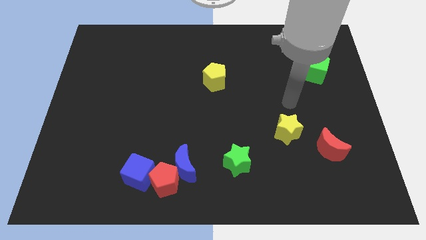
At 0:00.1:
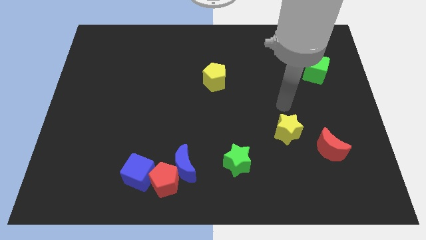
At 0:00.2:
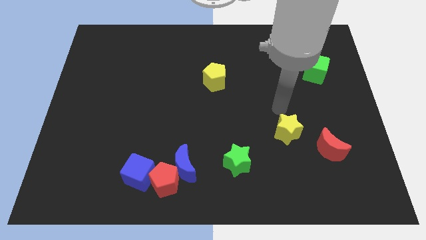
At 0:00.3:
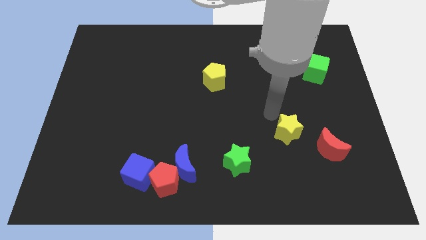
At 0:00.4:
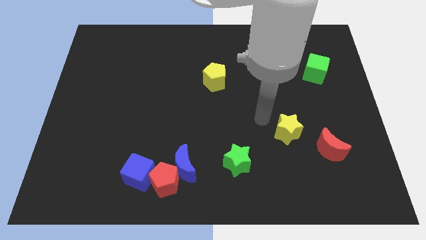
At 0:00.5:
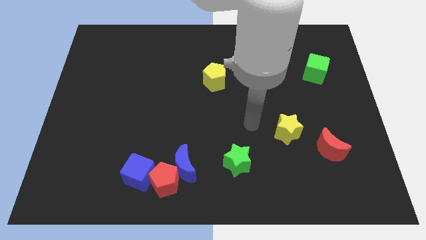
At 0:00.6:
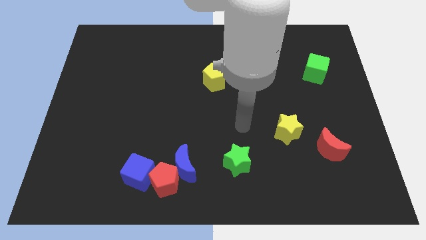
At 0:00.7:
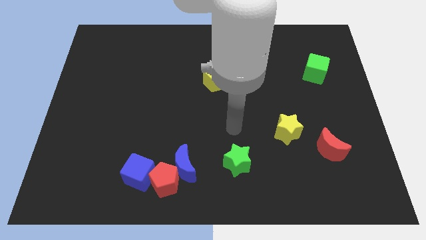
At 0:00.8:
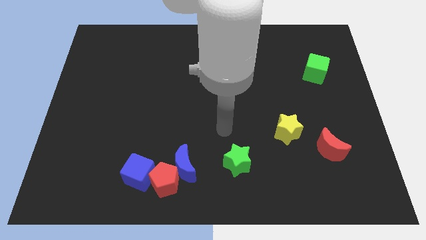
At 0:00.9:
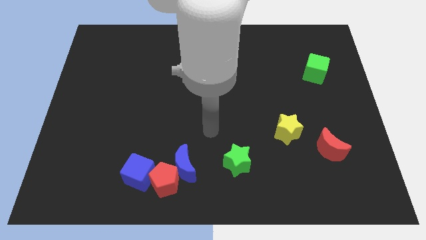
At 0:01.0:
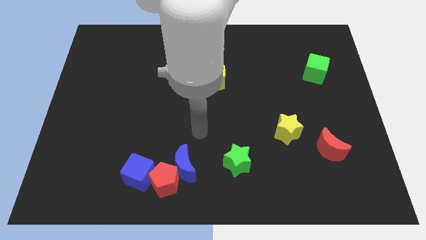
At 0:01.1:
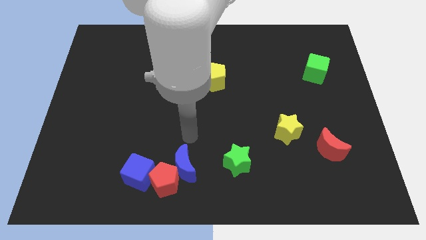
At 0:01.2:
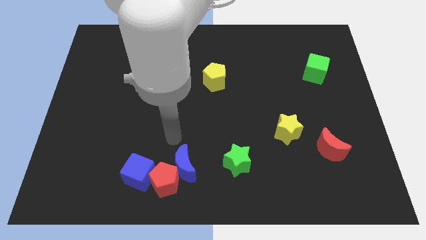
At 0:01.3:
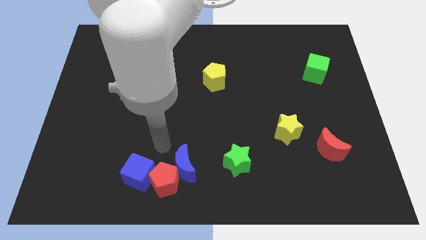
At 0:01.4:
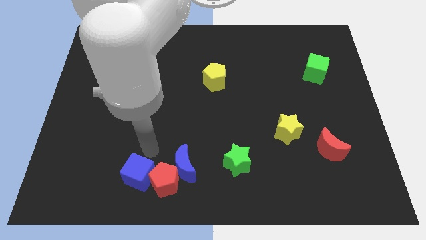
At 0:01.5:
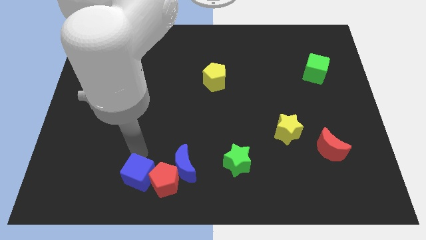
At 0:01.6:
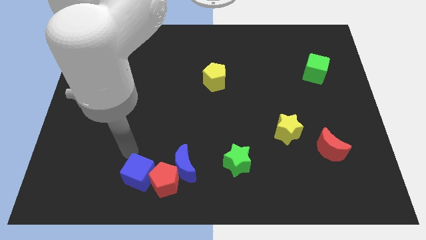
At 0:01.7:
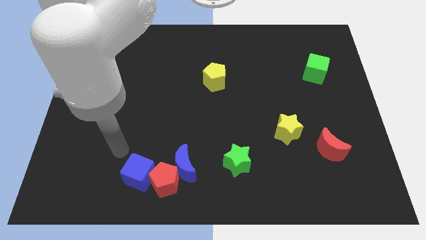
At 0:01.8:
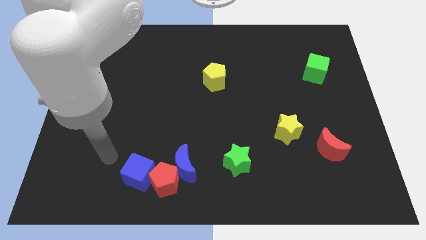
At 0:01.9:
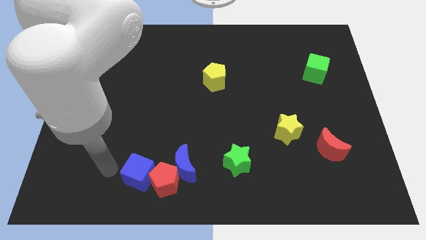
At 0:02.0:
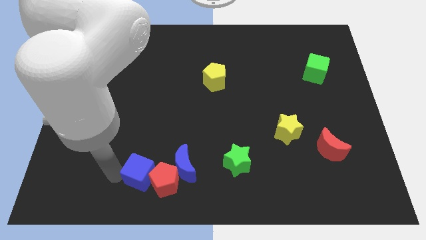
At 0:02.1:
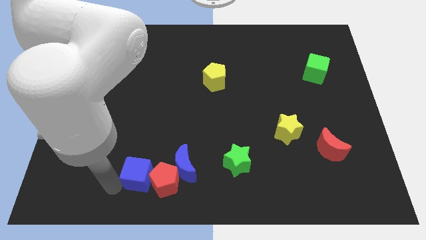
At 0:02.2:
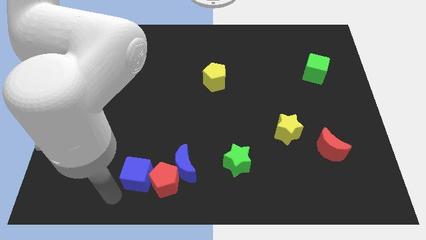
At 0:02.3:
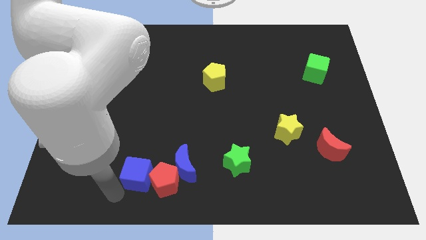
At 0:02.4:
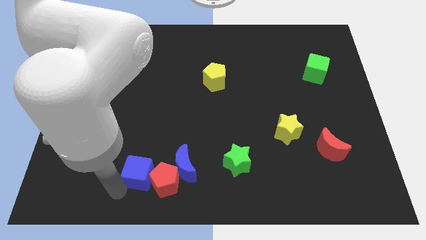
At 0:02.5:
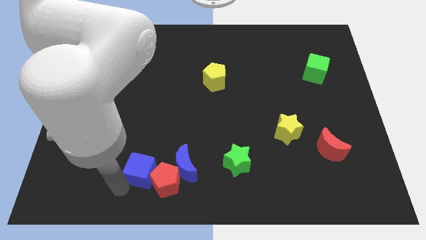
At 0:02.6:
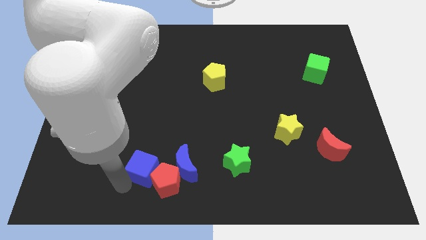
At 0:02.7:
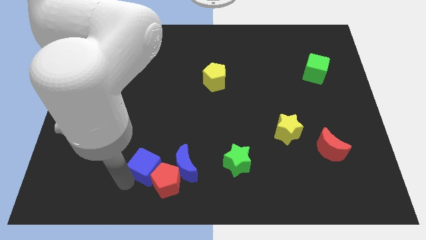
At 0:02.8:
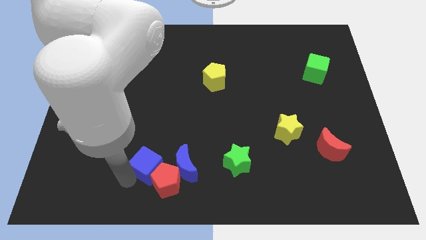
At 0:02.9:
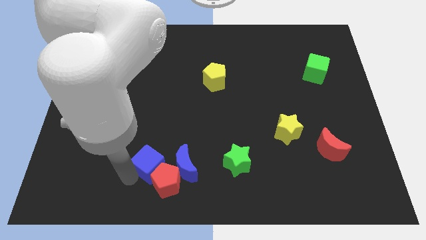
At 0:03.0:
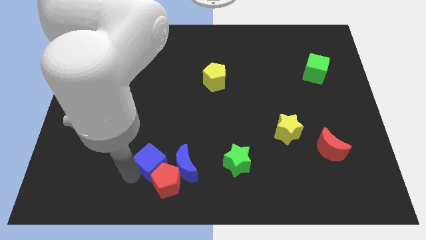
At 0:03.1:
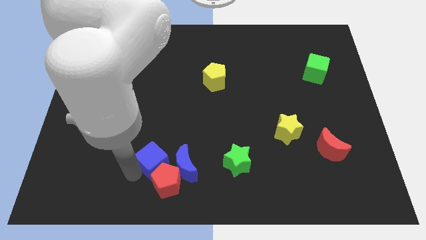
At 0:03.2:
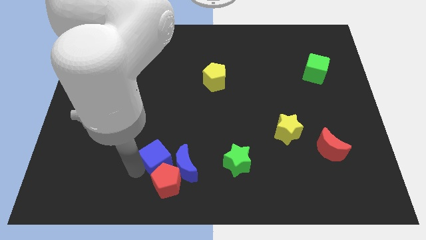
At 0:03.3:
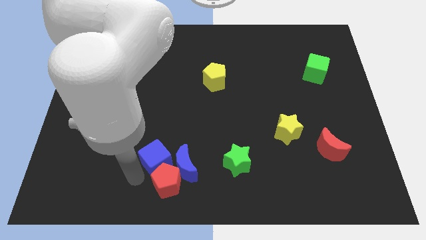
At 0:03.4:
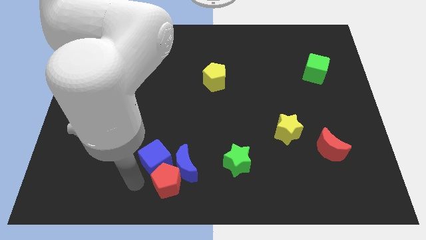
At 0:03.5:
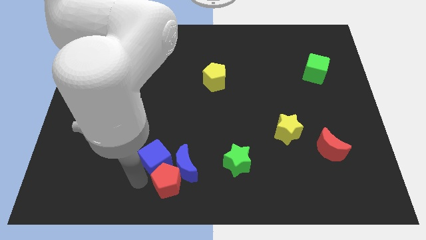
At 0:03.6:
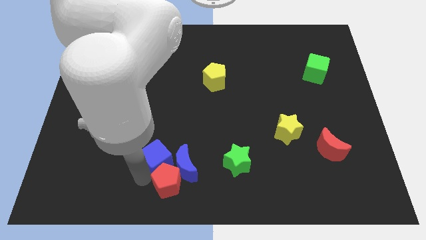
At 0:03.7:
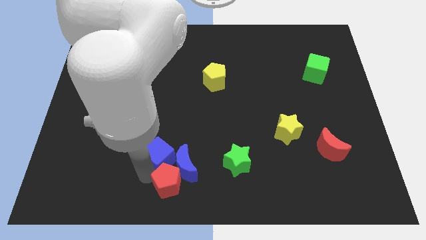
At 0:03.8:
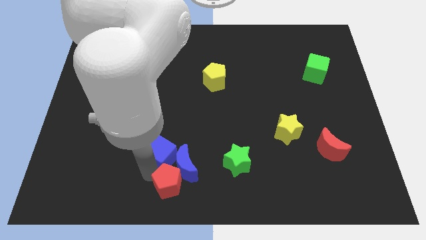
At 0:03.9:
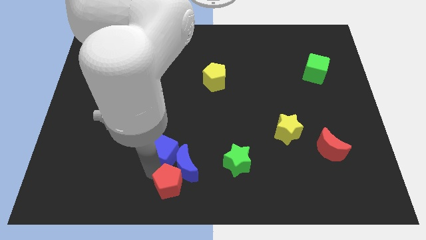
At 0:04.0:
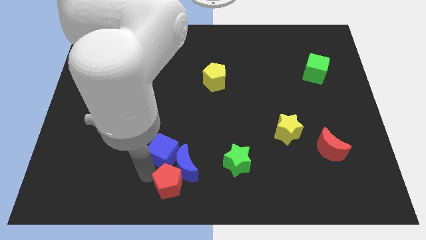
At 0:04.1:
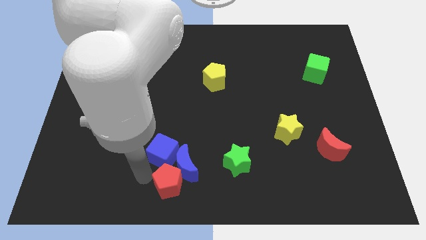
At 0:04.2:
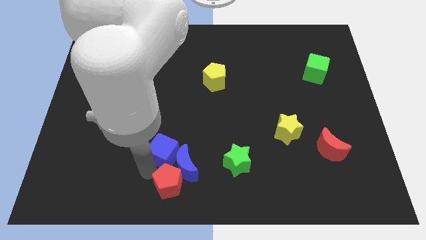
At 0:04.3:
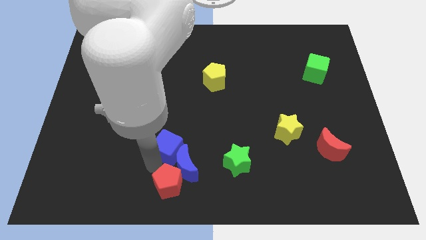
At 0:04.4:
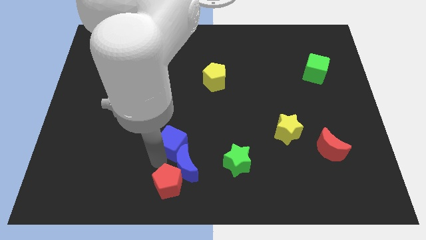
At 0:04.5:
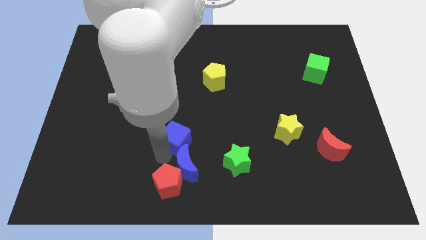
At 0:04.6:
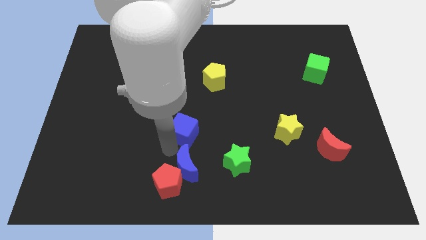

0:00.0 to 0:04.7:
slide the blue cube to the center

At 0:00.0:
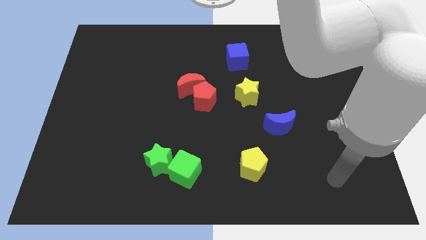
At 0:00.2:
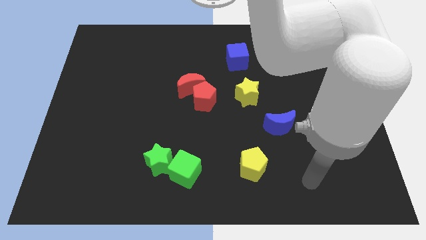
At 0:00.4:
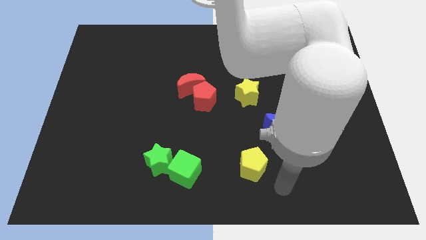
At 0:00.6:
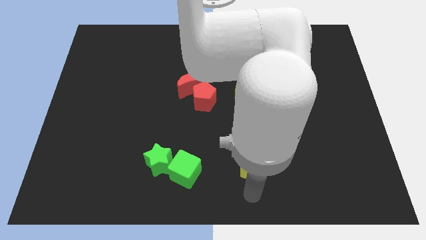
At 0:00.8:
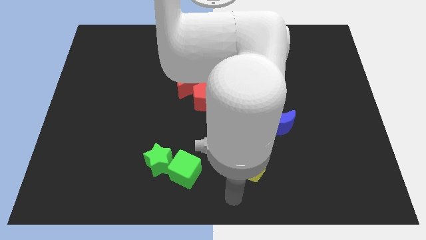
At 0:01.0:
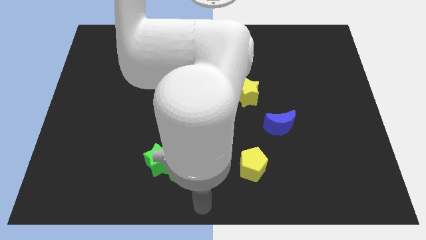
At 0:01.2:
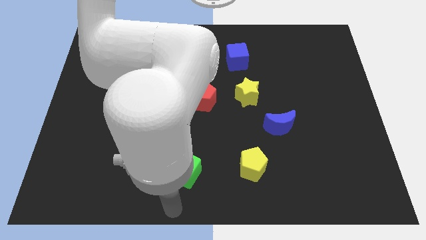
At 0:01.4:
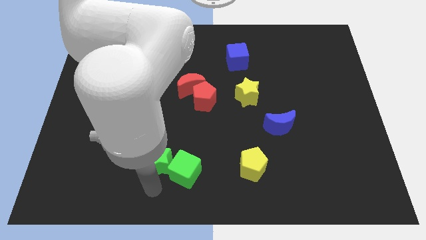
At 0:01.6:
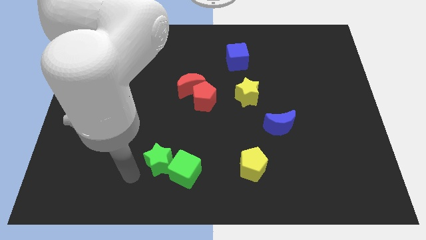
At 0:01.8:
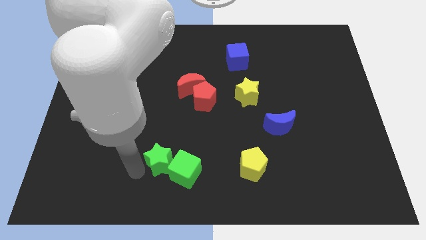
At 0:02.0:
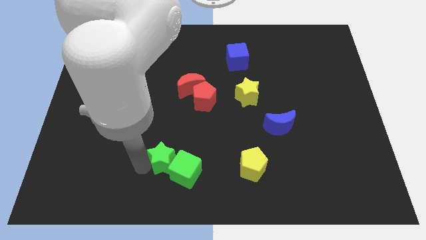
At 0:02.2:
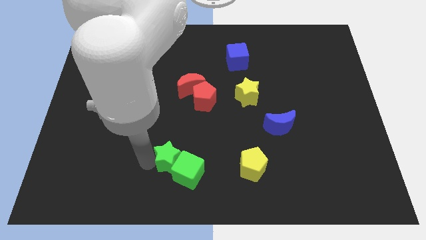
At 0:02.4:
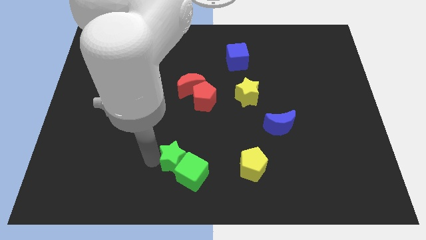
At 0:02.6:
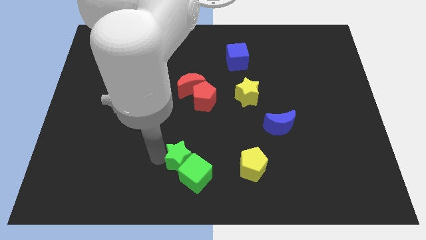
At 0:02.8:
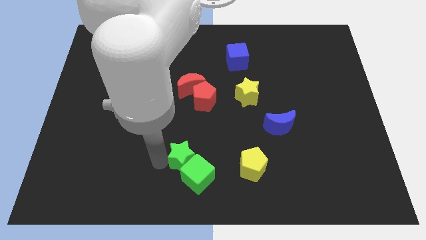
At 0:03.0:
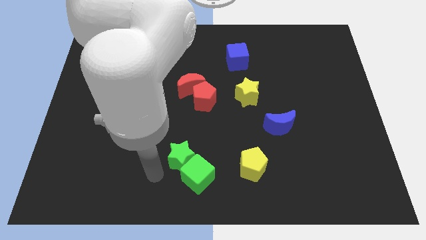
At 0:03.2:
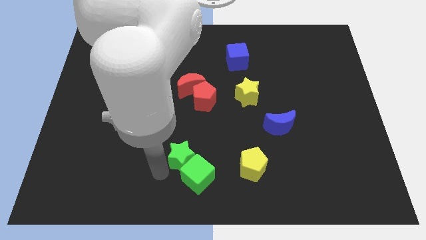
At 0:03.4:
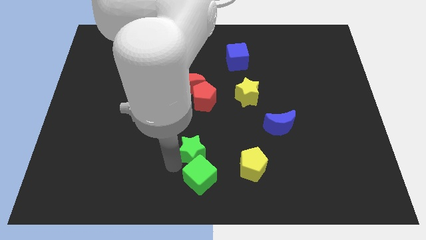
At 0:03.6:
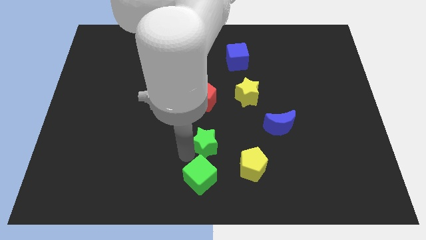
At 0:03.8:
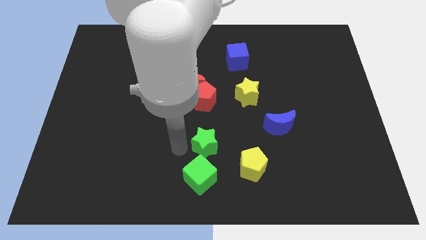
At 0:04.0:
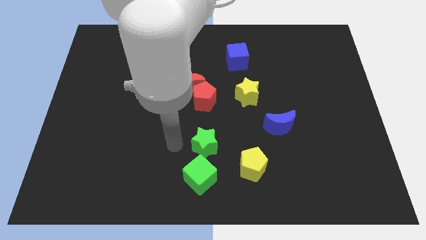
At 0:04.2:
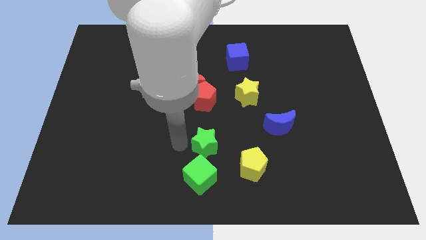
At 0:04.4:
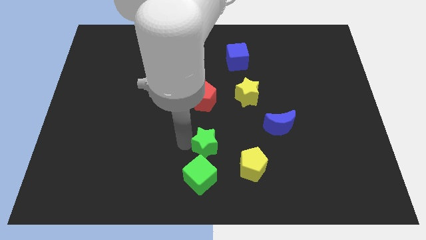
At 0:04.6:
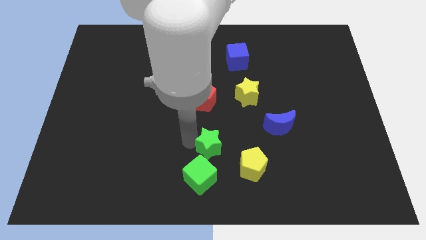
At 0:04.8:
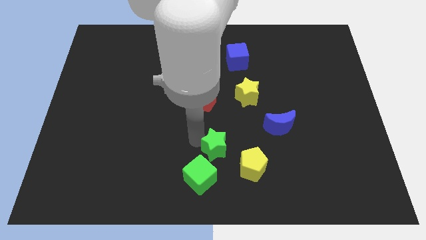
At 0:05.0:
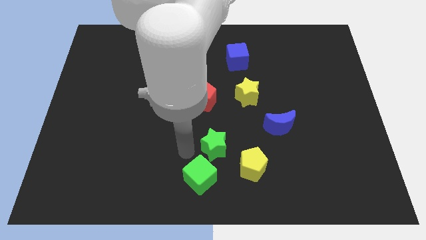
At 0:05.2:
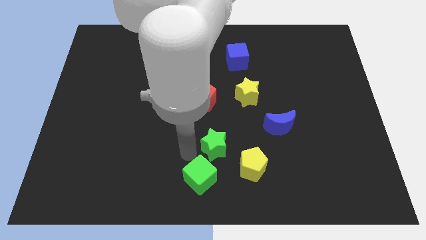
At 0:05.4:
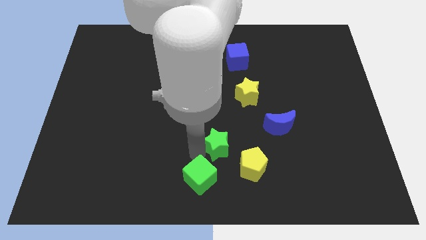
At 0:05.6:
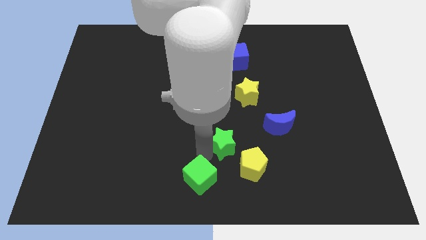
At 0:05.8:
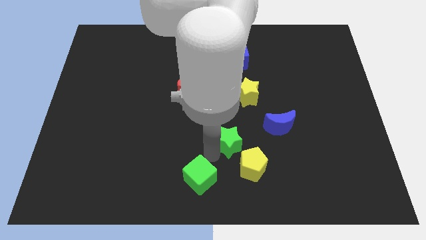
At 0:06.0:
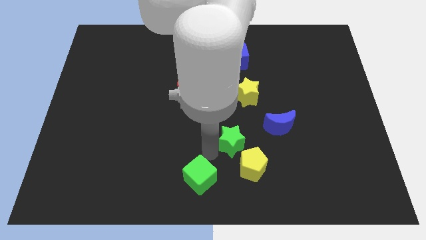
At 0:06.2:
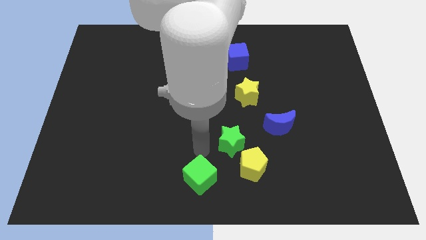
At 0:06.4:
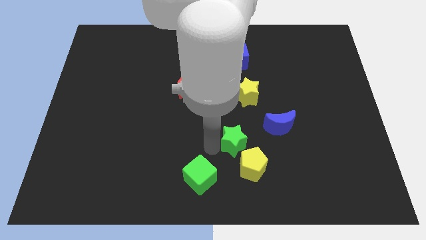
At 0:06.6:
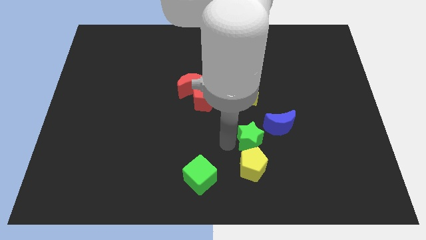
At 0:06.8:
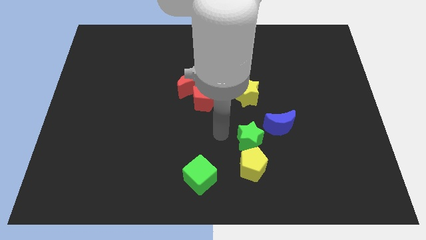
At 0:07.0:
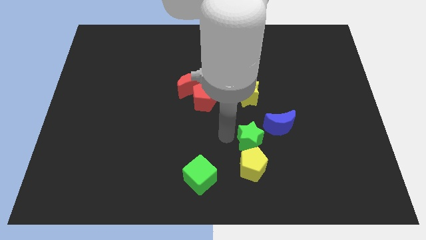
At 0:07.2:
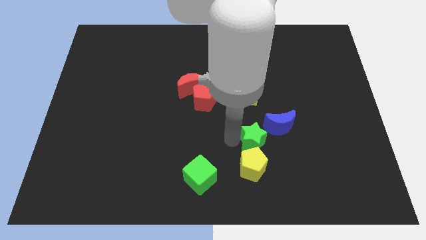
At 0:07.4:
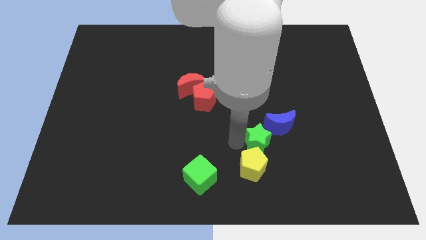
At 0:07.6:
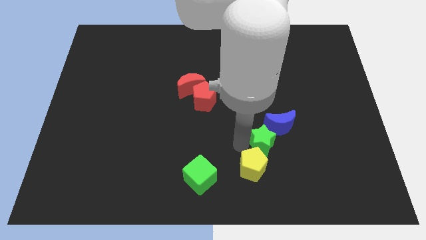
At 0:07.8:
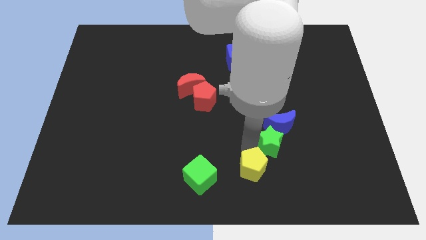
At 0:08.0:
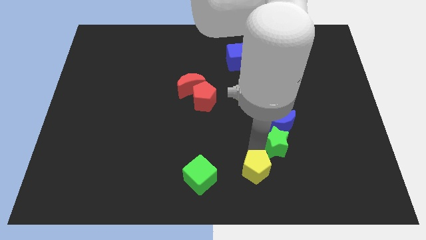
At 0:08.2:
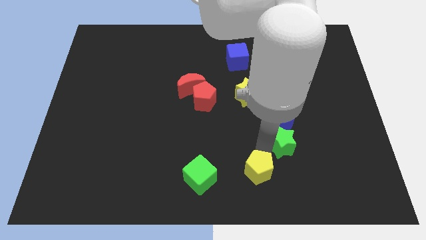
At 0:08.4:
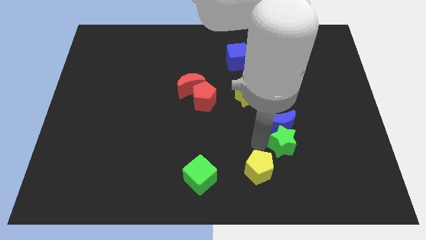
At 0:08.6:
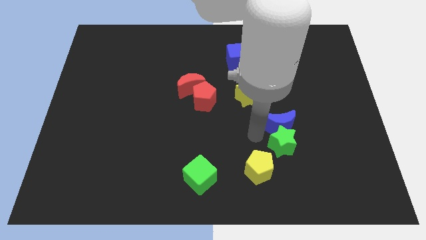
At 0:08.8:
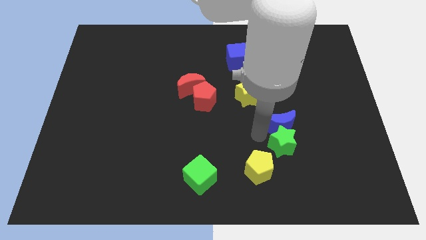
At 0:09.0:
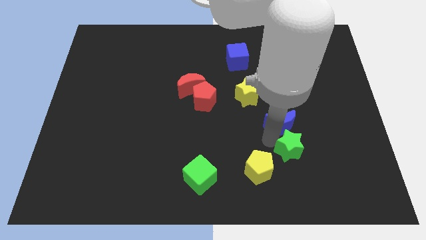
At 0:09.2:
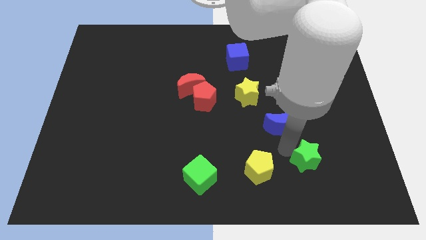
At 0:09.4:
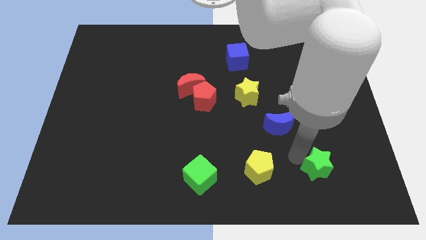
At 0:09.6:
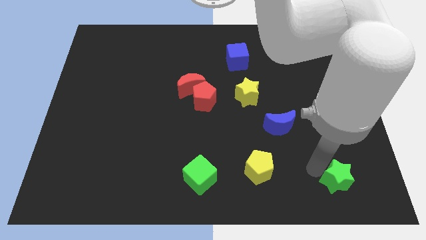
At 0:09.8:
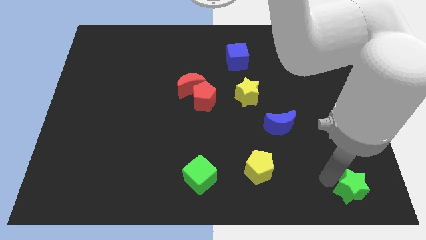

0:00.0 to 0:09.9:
slide the green star to the lower right corner
